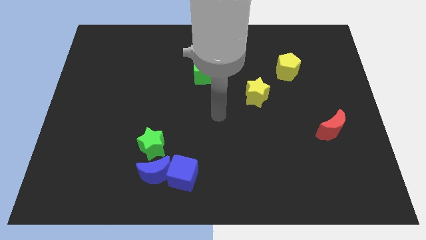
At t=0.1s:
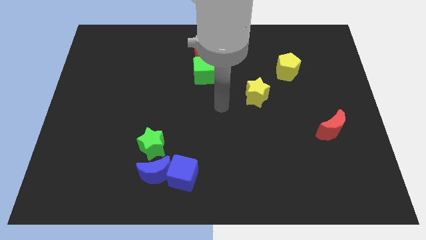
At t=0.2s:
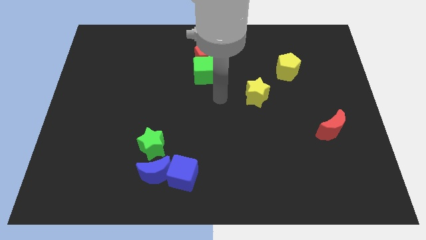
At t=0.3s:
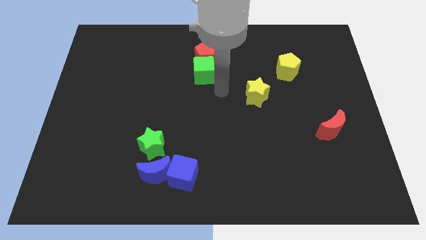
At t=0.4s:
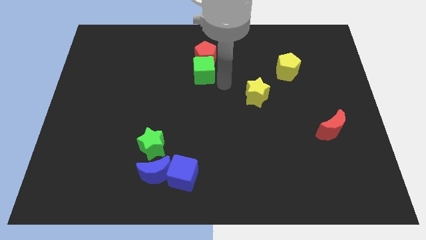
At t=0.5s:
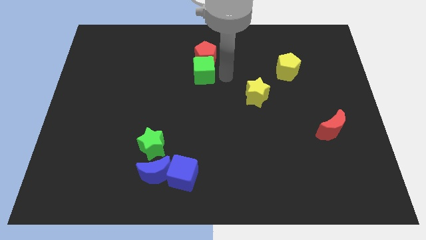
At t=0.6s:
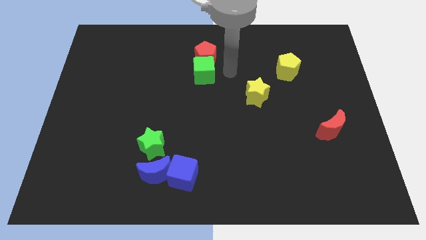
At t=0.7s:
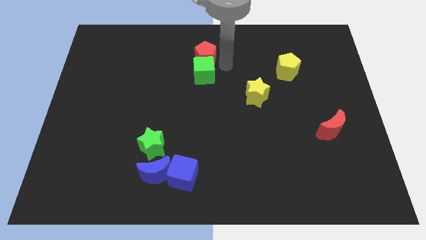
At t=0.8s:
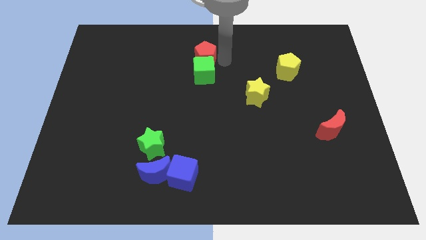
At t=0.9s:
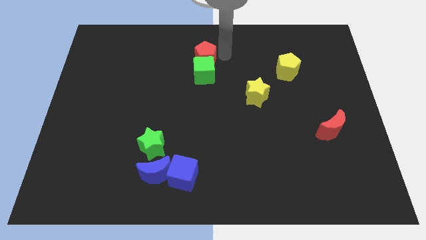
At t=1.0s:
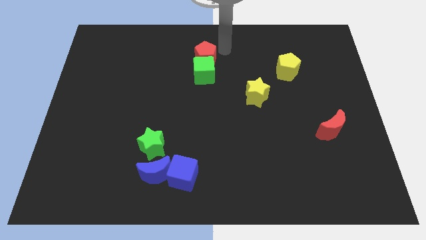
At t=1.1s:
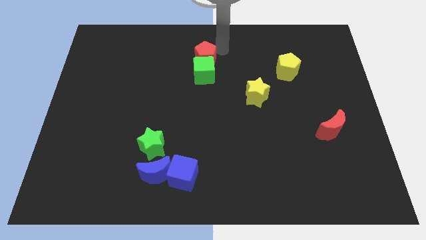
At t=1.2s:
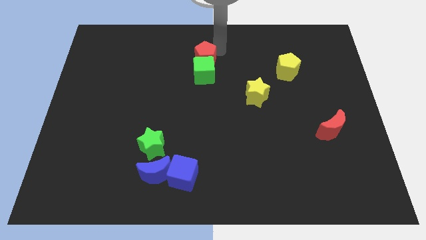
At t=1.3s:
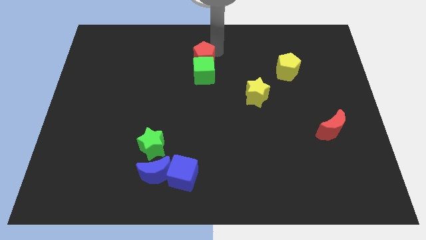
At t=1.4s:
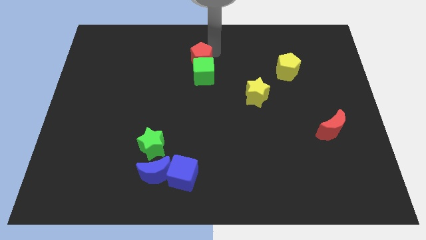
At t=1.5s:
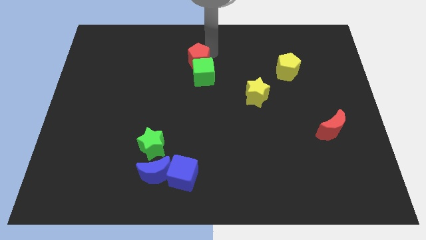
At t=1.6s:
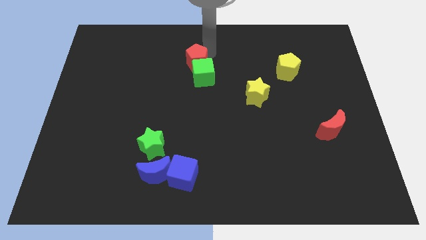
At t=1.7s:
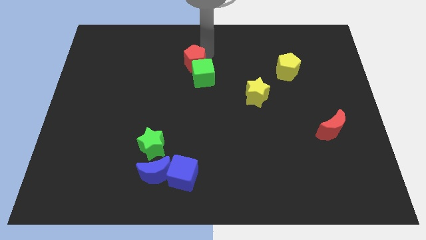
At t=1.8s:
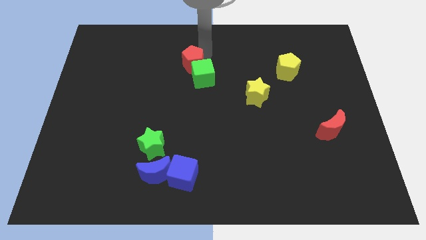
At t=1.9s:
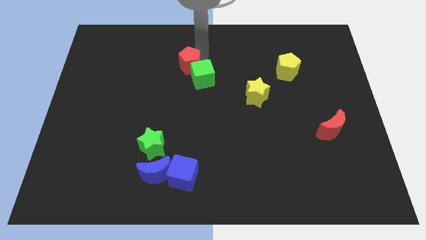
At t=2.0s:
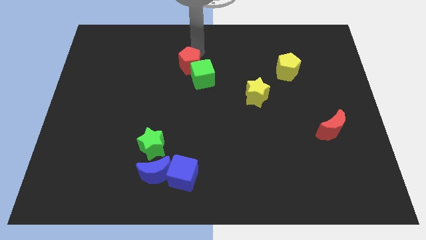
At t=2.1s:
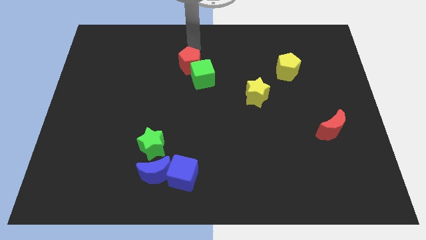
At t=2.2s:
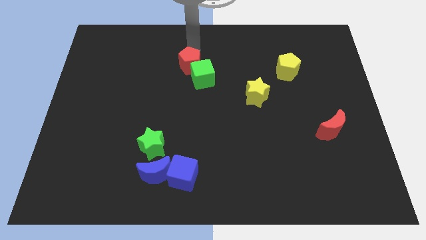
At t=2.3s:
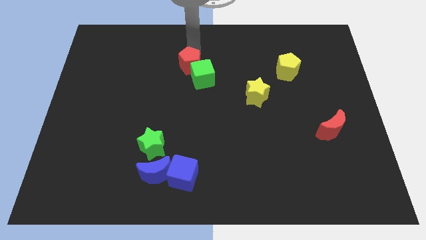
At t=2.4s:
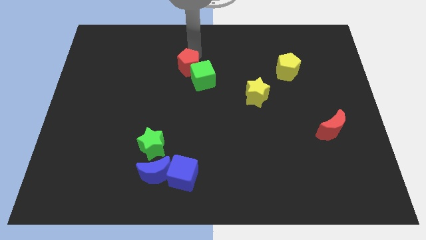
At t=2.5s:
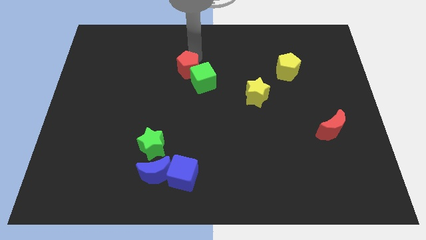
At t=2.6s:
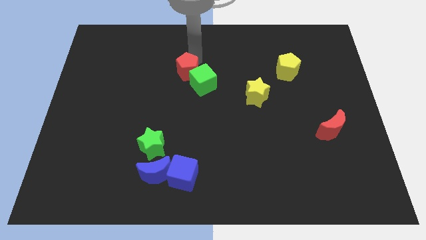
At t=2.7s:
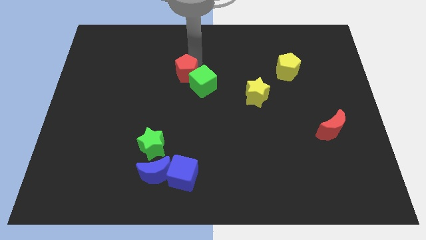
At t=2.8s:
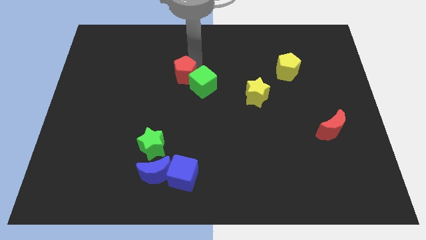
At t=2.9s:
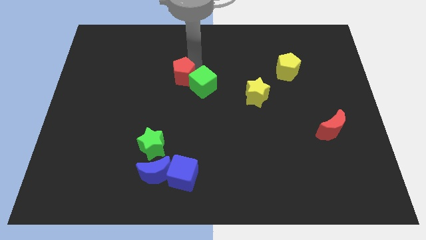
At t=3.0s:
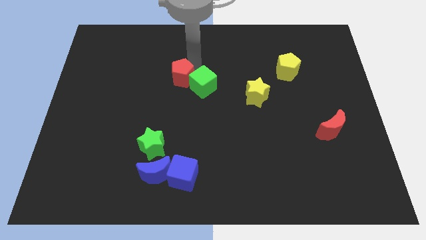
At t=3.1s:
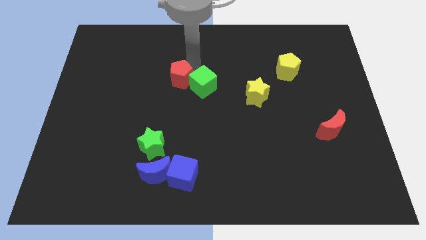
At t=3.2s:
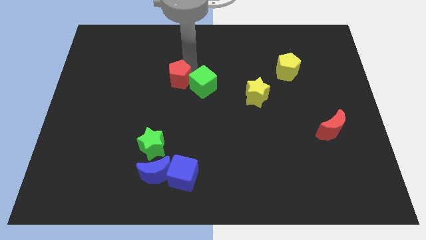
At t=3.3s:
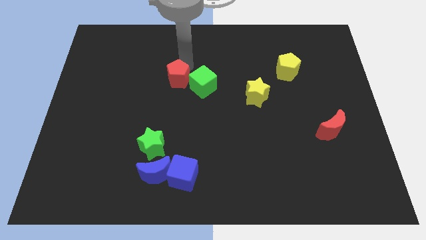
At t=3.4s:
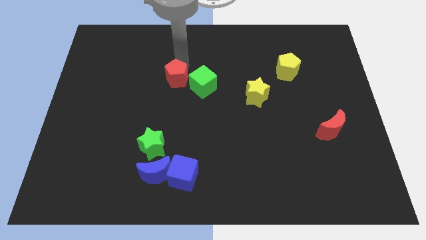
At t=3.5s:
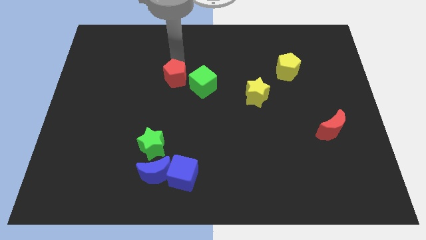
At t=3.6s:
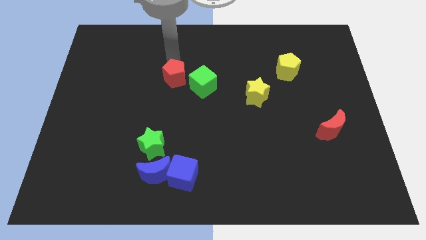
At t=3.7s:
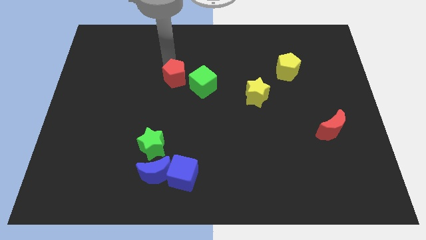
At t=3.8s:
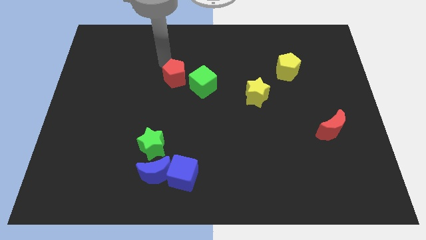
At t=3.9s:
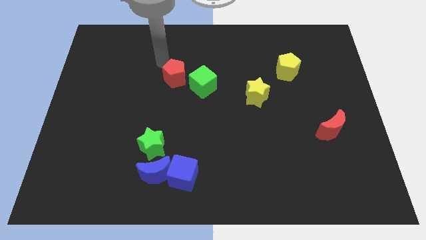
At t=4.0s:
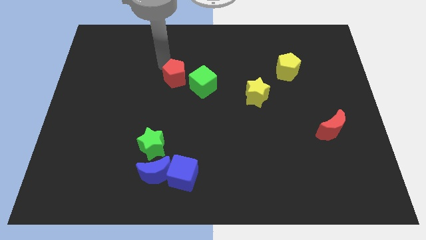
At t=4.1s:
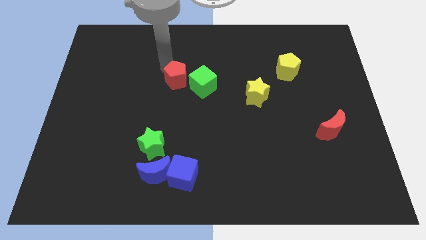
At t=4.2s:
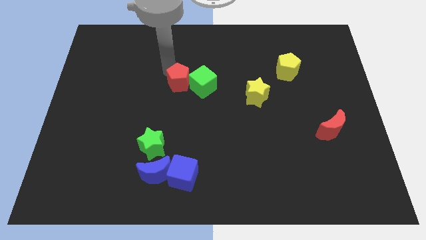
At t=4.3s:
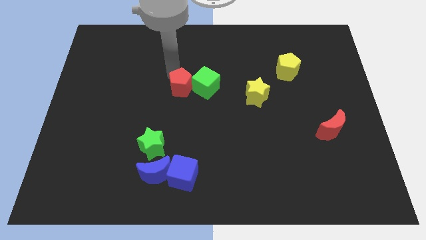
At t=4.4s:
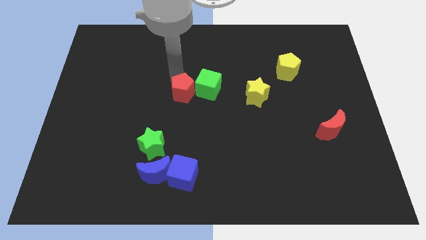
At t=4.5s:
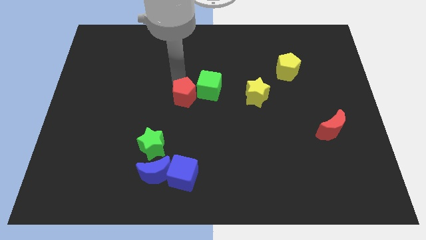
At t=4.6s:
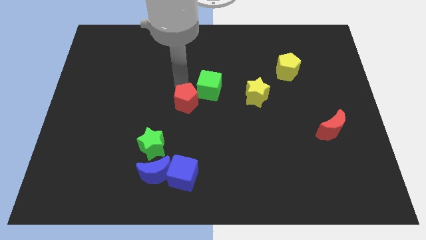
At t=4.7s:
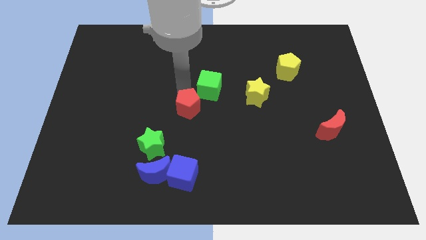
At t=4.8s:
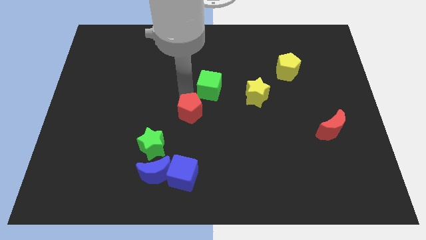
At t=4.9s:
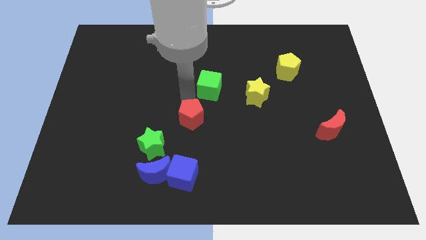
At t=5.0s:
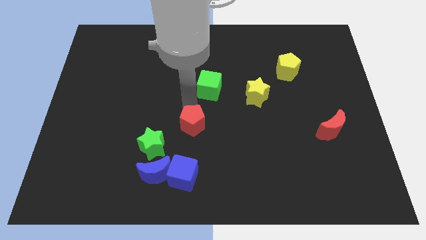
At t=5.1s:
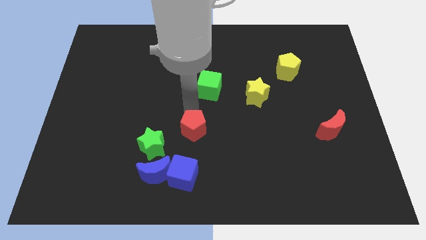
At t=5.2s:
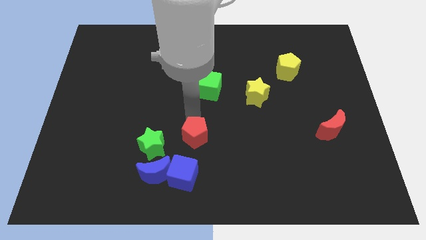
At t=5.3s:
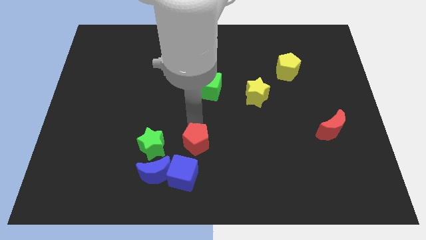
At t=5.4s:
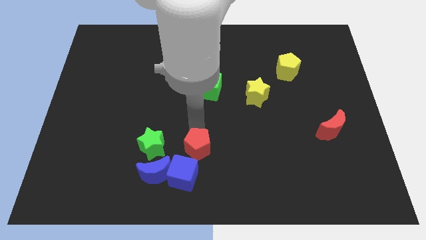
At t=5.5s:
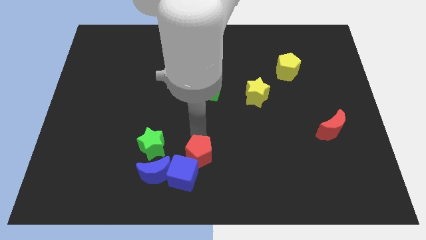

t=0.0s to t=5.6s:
slide the red pentagon next to the blue cube

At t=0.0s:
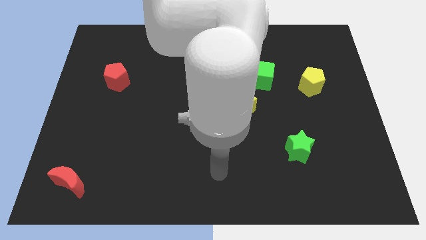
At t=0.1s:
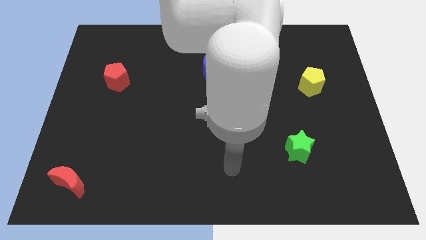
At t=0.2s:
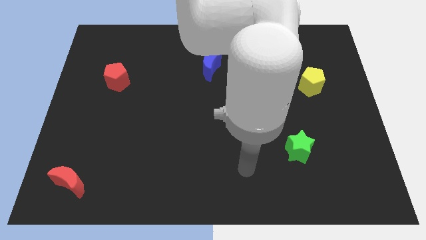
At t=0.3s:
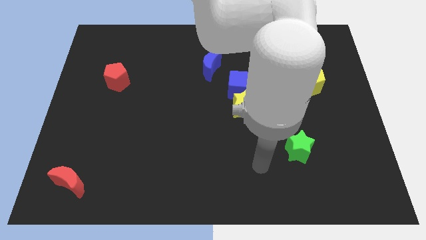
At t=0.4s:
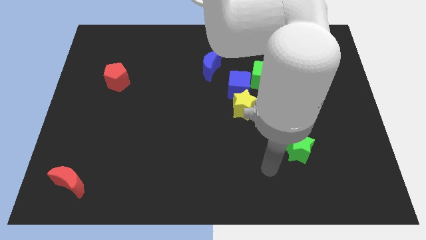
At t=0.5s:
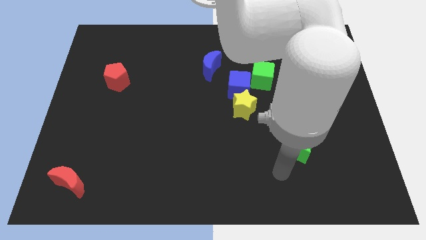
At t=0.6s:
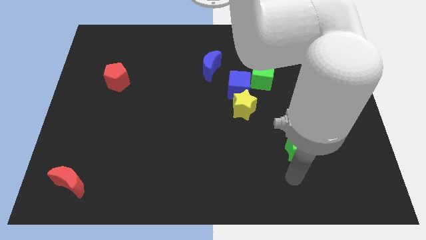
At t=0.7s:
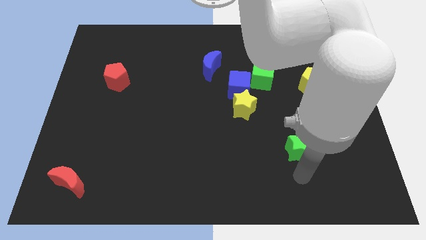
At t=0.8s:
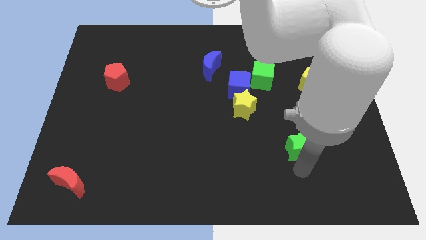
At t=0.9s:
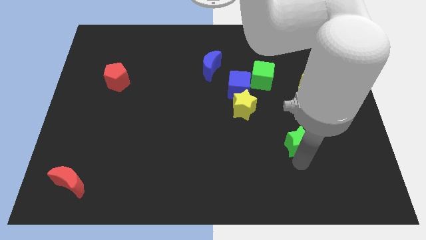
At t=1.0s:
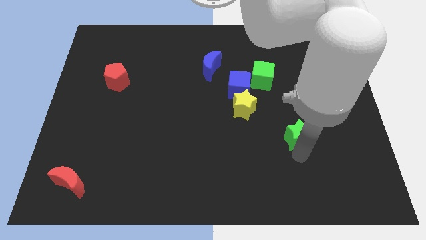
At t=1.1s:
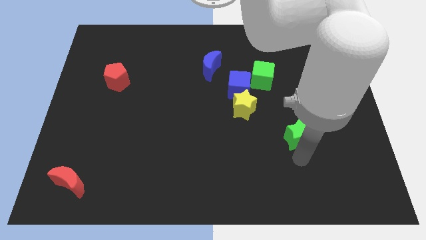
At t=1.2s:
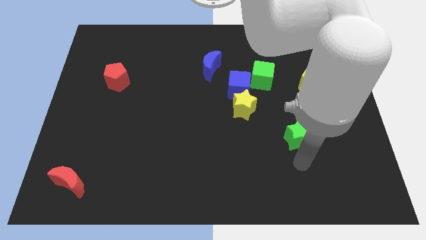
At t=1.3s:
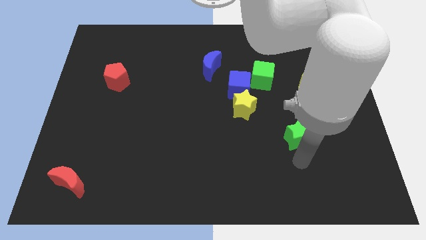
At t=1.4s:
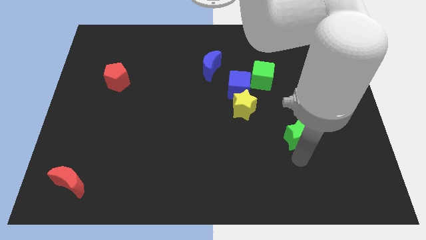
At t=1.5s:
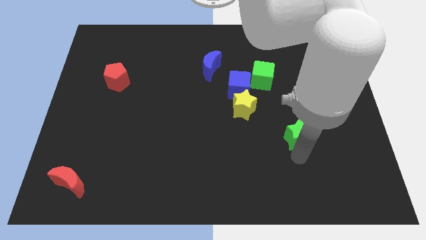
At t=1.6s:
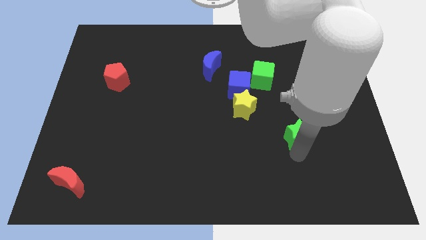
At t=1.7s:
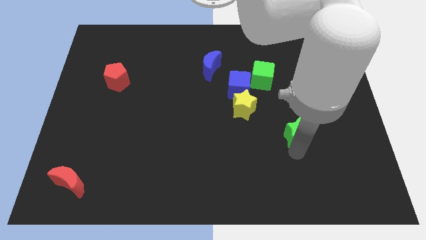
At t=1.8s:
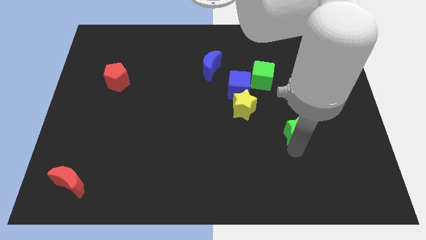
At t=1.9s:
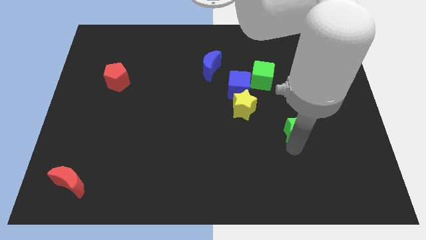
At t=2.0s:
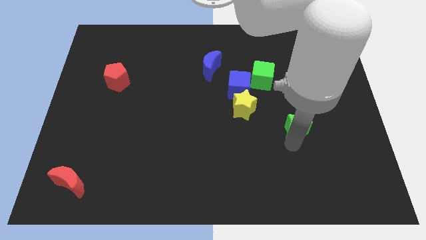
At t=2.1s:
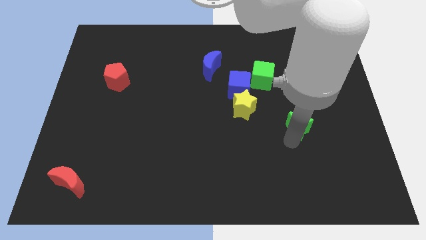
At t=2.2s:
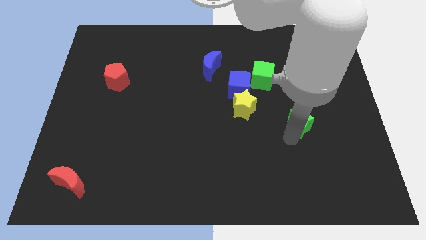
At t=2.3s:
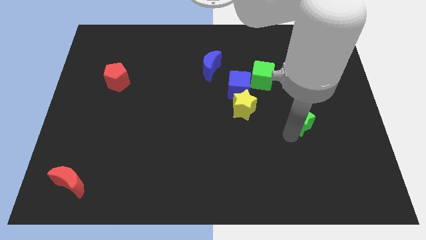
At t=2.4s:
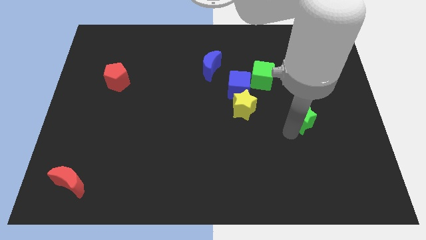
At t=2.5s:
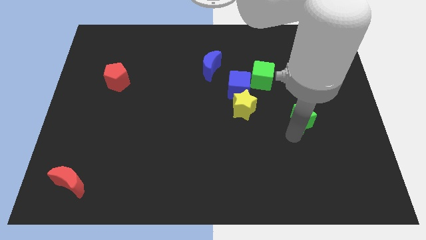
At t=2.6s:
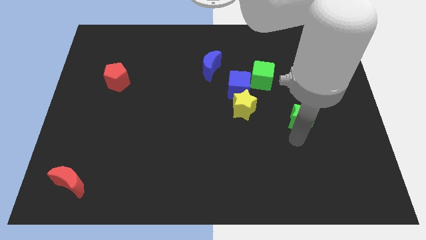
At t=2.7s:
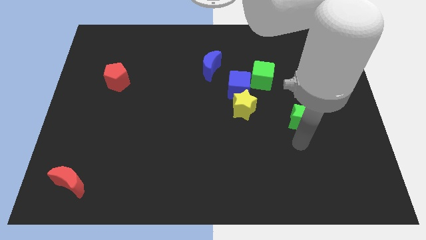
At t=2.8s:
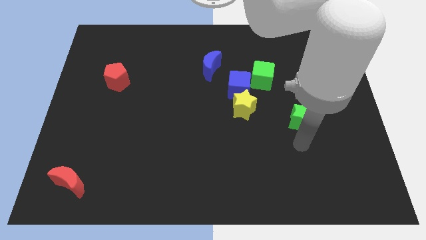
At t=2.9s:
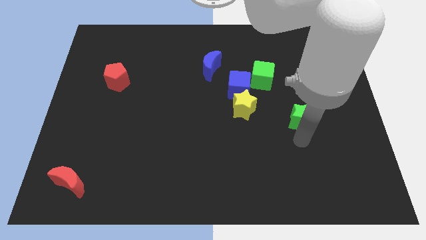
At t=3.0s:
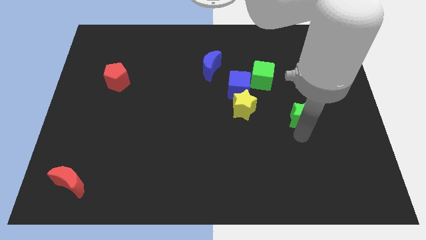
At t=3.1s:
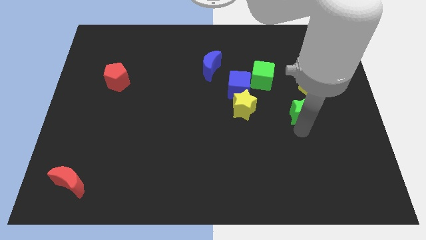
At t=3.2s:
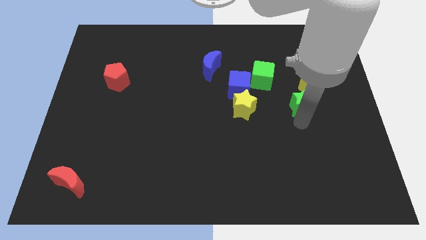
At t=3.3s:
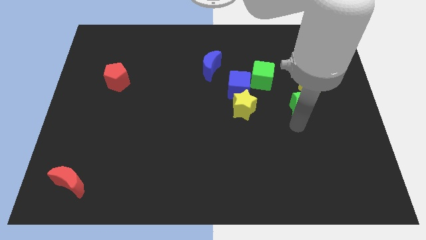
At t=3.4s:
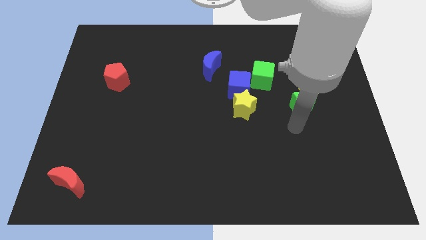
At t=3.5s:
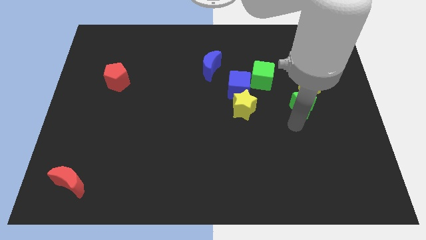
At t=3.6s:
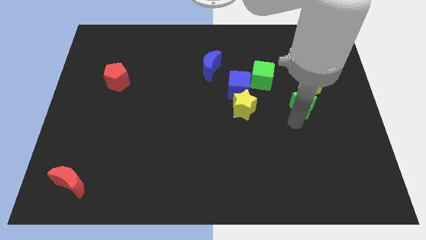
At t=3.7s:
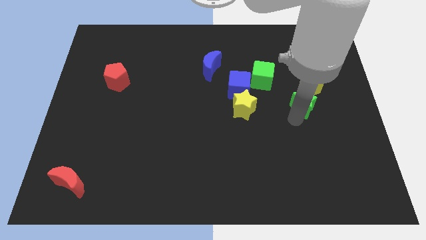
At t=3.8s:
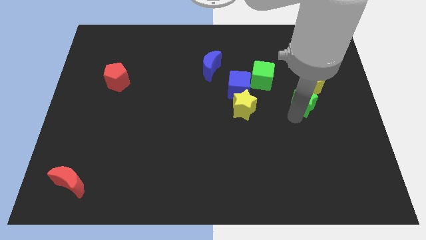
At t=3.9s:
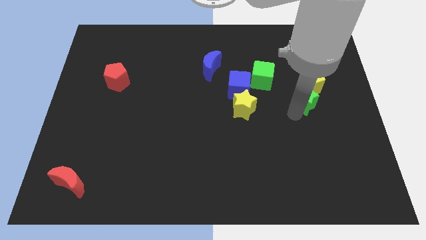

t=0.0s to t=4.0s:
move the green star to the yellow pentagon
